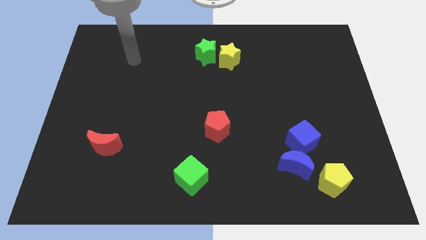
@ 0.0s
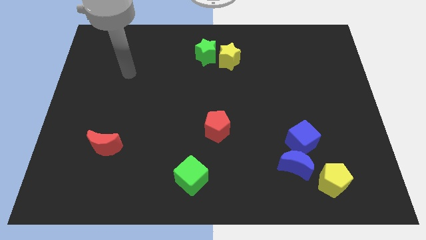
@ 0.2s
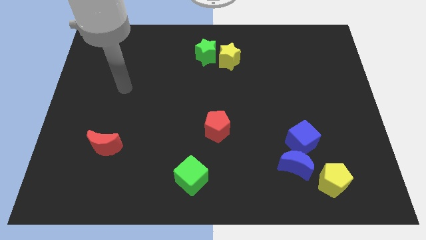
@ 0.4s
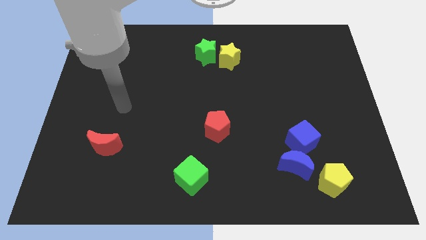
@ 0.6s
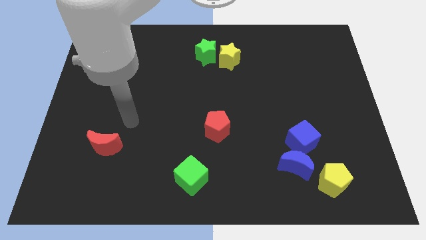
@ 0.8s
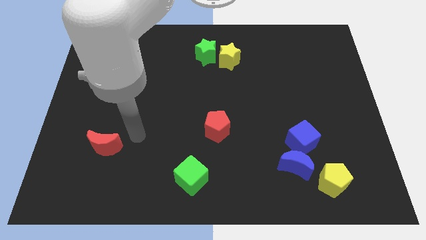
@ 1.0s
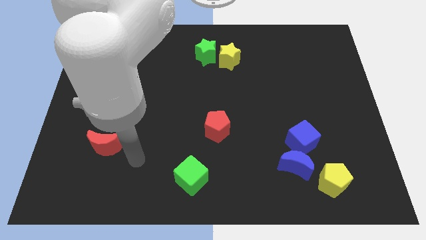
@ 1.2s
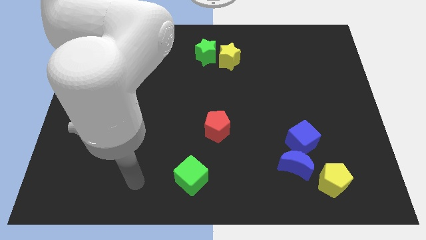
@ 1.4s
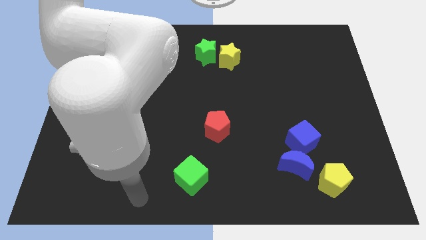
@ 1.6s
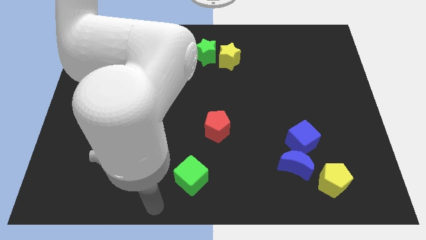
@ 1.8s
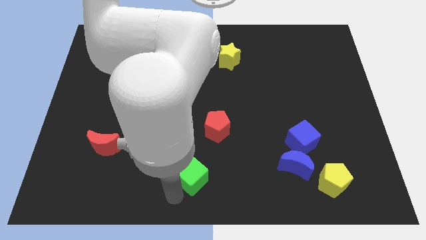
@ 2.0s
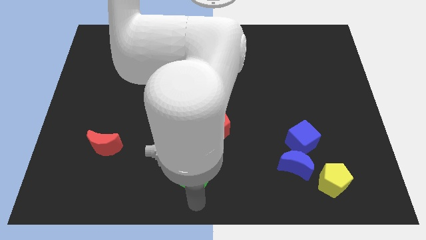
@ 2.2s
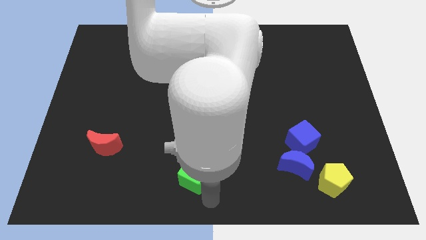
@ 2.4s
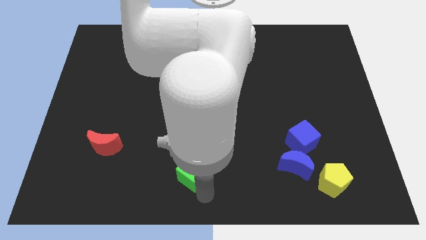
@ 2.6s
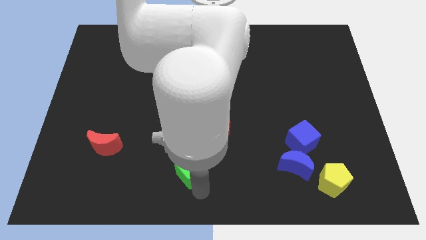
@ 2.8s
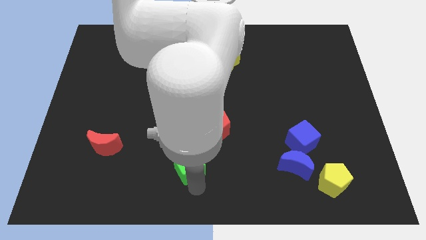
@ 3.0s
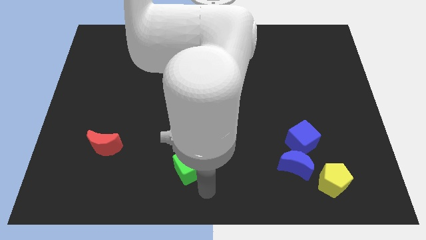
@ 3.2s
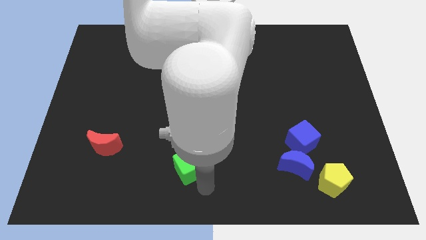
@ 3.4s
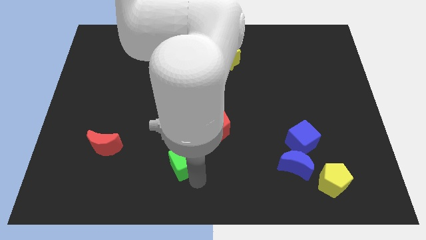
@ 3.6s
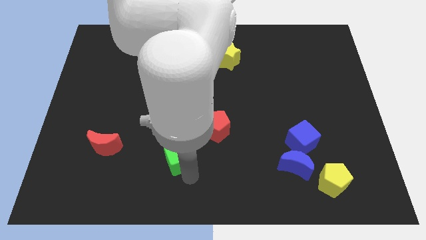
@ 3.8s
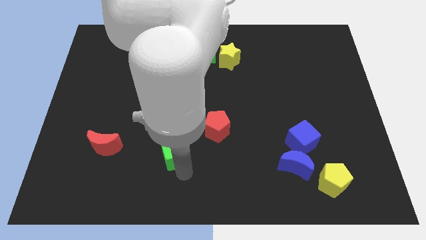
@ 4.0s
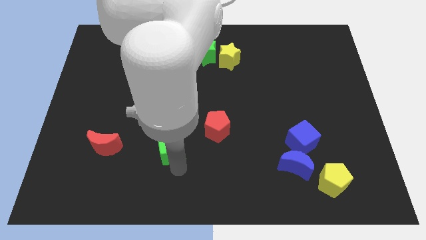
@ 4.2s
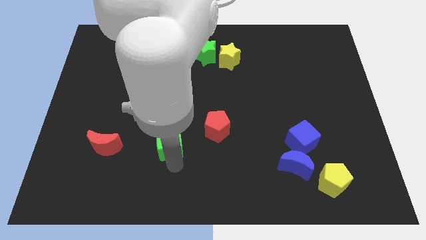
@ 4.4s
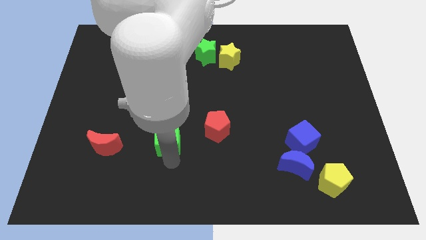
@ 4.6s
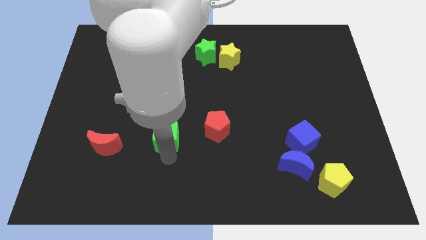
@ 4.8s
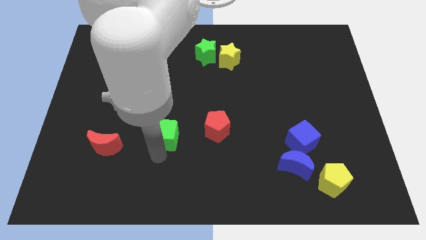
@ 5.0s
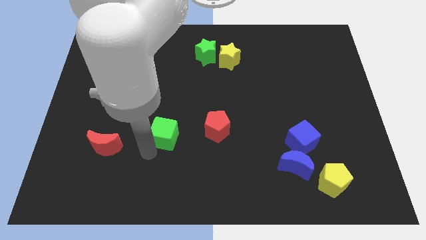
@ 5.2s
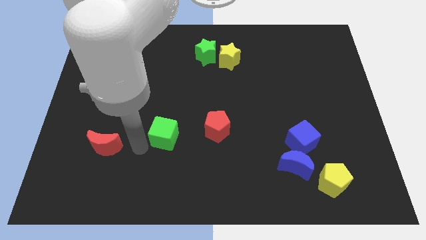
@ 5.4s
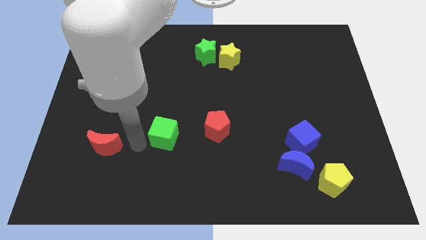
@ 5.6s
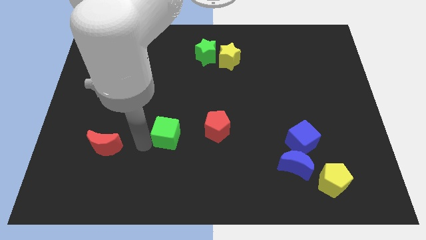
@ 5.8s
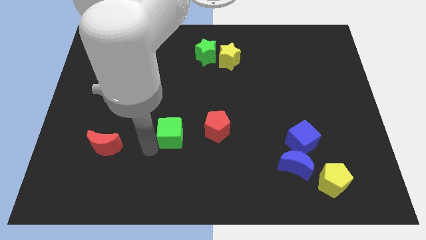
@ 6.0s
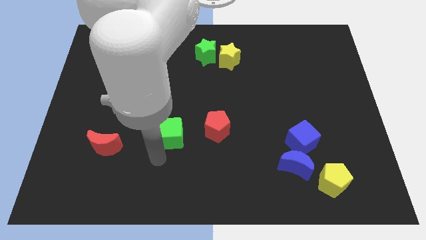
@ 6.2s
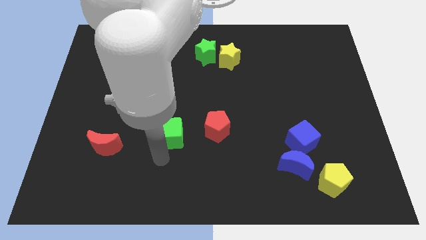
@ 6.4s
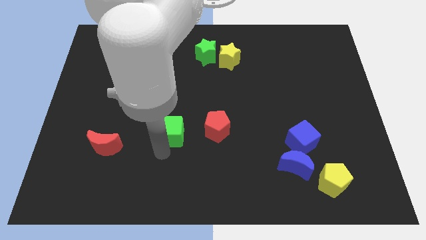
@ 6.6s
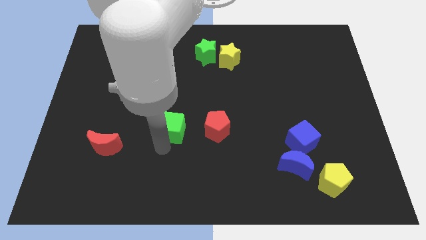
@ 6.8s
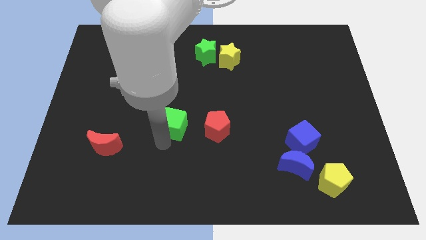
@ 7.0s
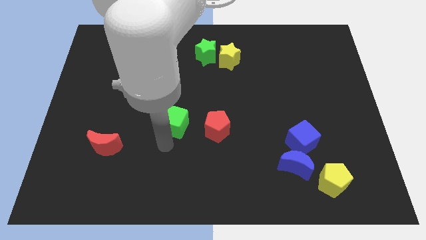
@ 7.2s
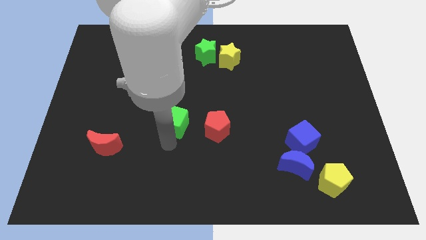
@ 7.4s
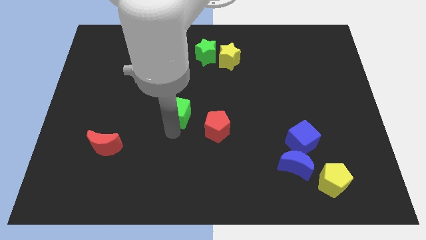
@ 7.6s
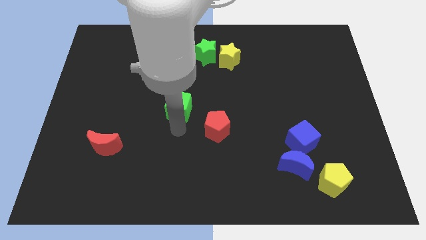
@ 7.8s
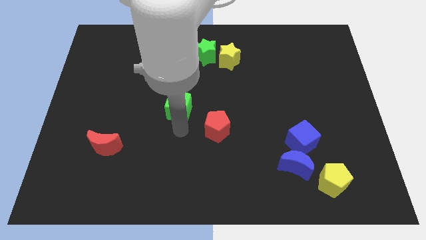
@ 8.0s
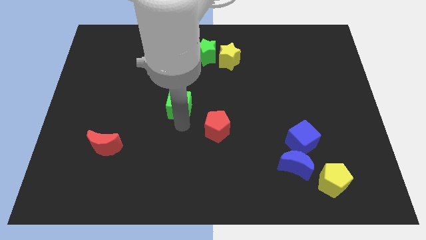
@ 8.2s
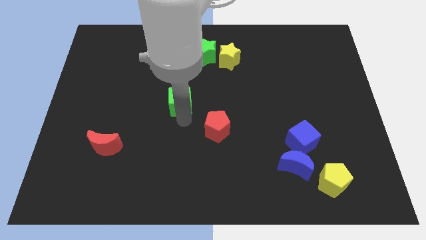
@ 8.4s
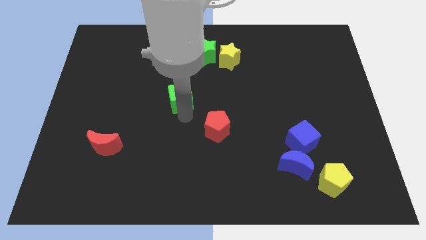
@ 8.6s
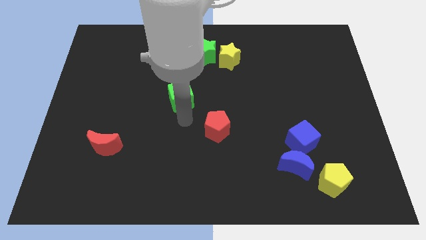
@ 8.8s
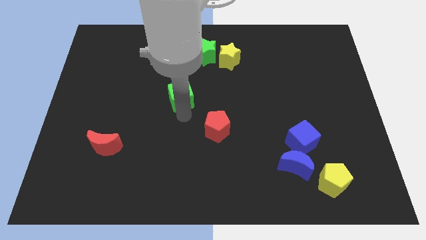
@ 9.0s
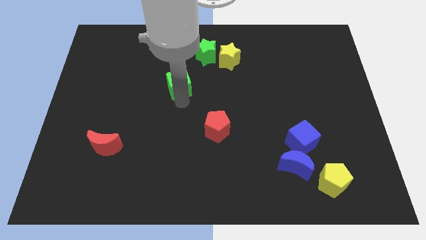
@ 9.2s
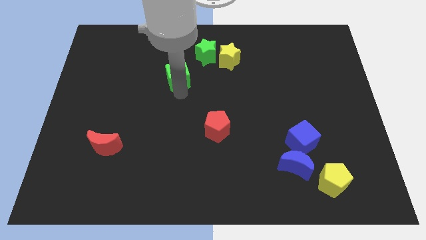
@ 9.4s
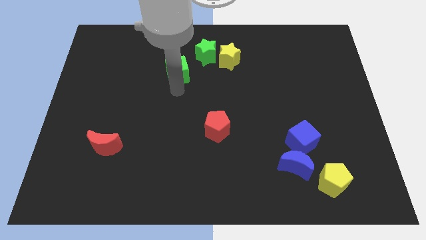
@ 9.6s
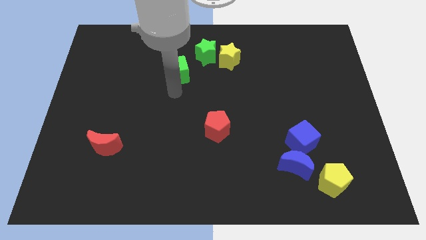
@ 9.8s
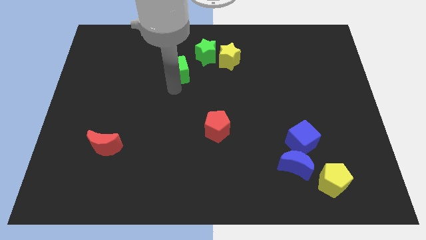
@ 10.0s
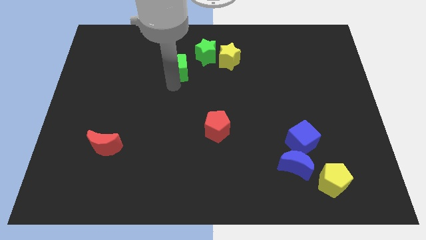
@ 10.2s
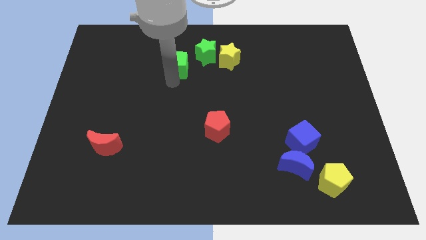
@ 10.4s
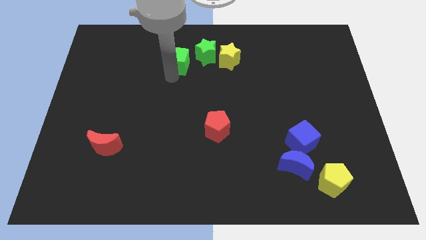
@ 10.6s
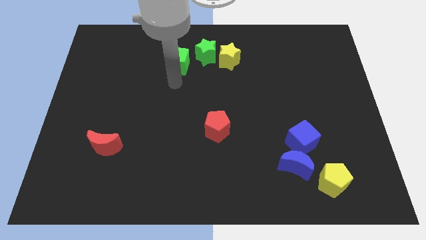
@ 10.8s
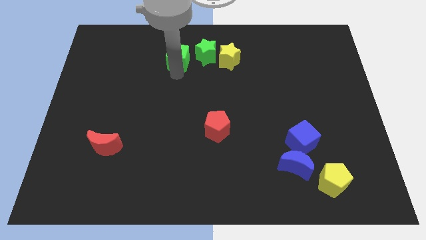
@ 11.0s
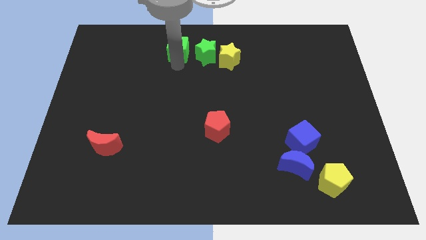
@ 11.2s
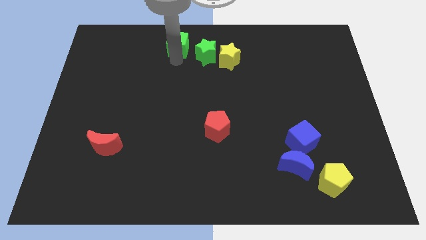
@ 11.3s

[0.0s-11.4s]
slide the green cube to the top

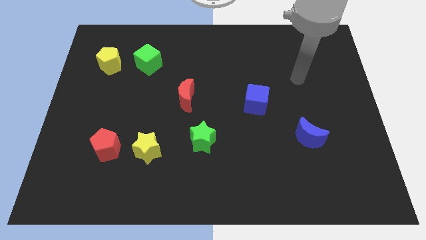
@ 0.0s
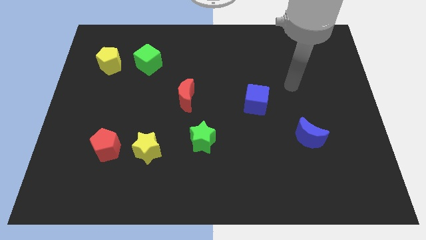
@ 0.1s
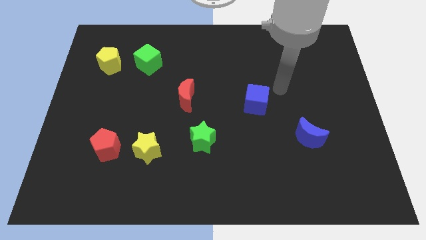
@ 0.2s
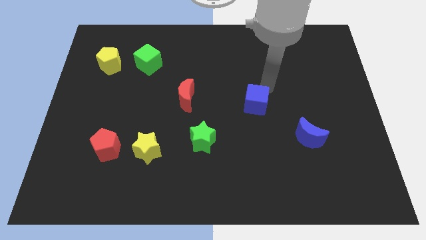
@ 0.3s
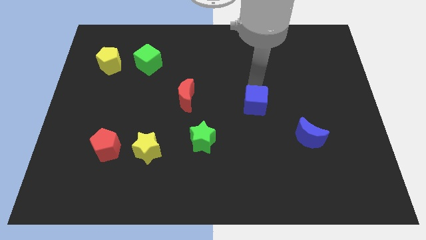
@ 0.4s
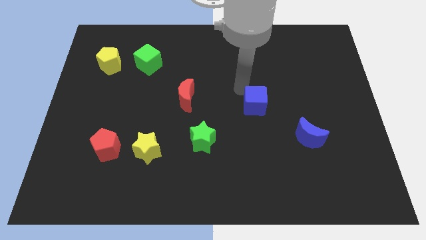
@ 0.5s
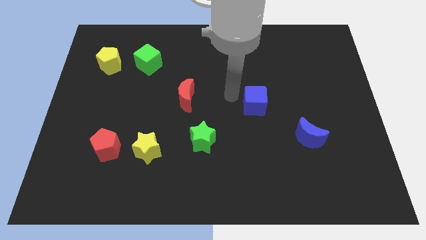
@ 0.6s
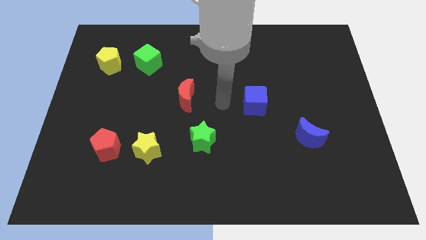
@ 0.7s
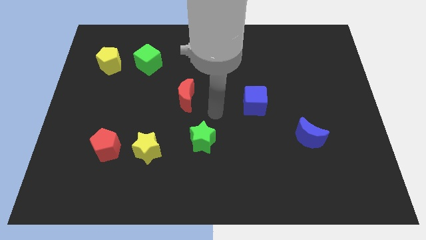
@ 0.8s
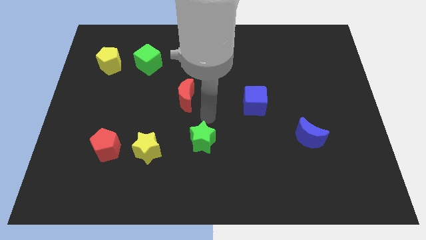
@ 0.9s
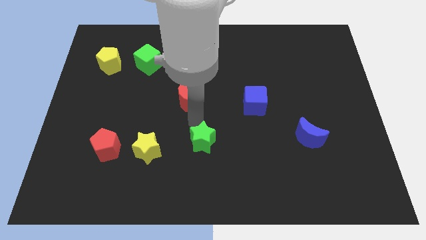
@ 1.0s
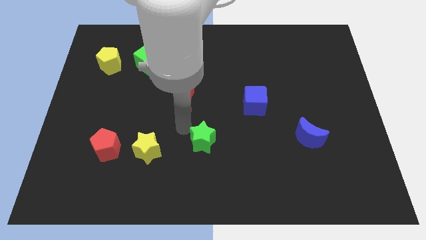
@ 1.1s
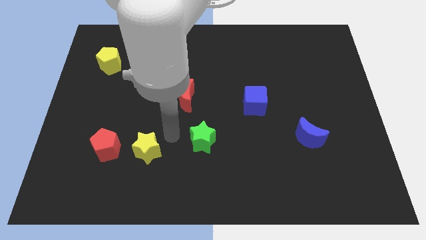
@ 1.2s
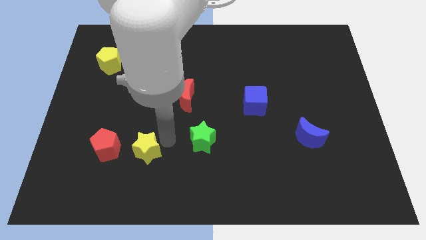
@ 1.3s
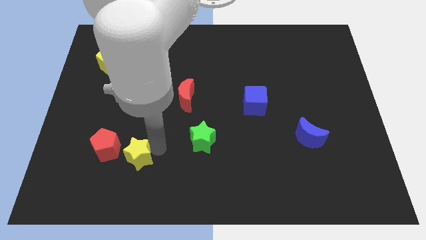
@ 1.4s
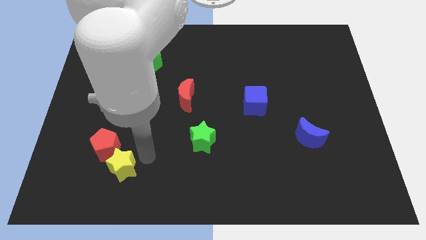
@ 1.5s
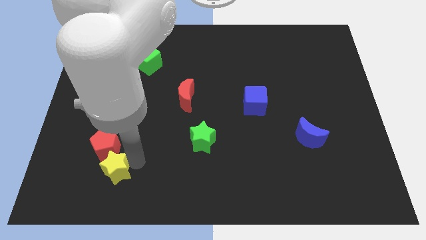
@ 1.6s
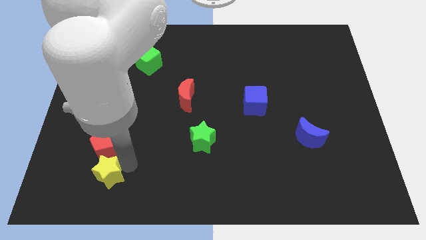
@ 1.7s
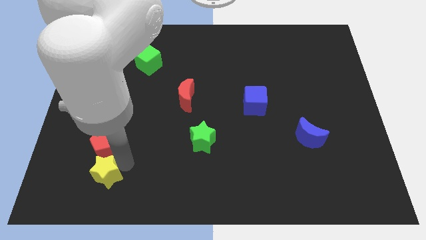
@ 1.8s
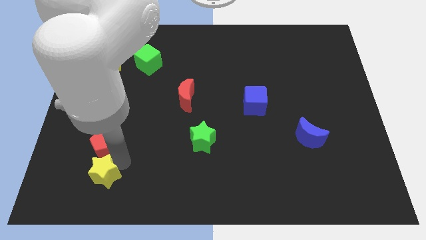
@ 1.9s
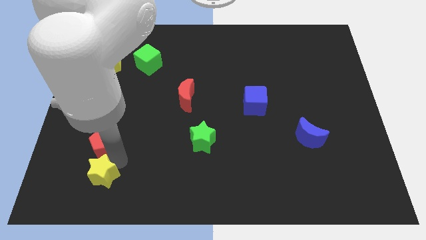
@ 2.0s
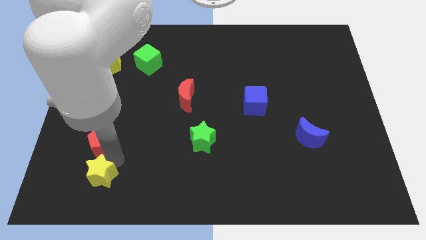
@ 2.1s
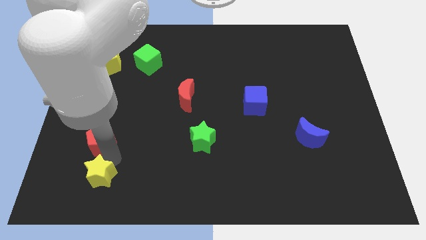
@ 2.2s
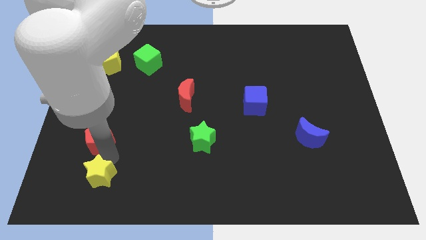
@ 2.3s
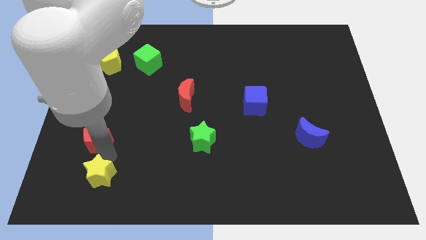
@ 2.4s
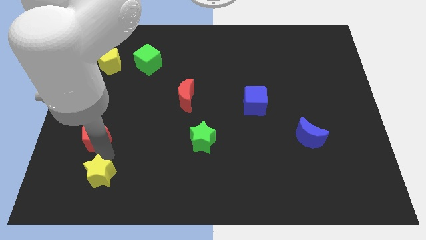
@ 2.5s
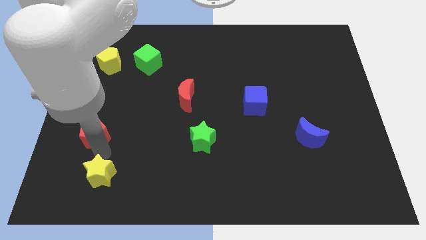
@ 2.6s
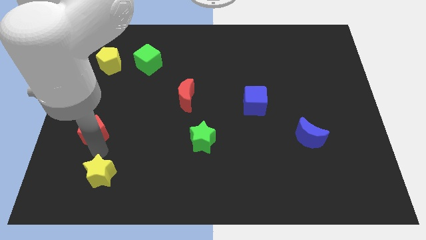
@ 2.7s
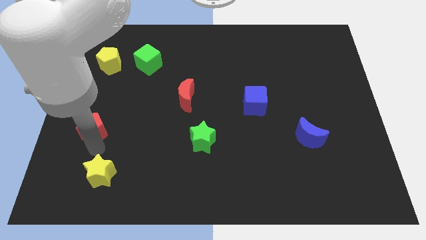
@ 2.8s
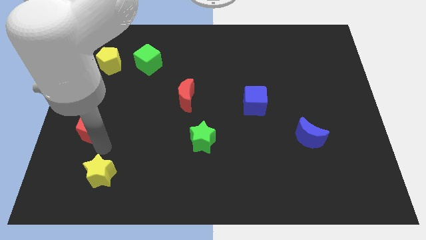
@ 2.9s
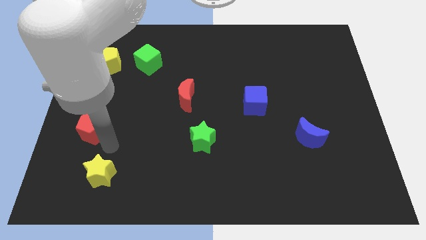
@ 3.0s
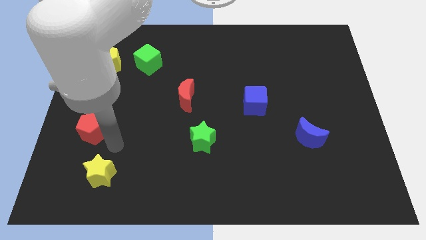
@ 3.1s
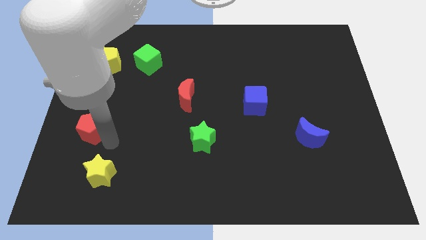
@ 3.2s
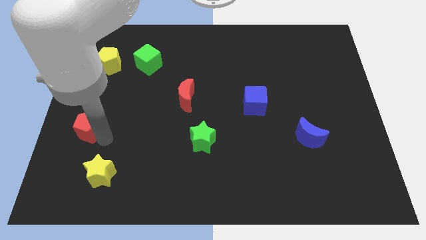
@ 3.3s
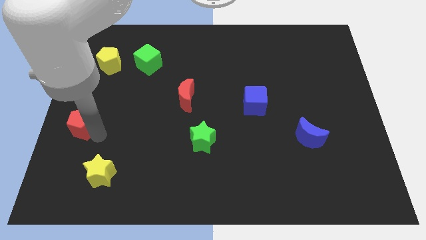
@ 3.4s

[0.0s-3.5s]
put the red pentagon to the left side
